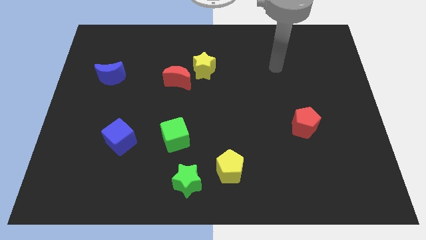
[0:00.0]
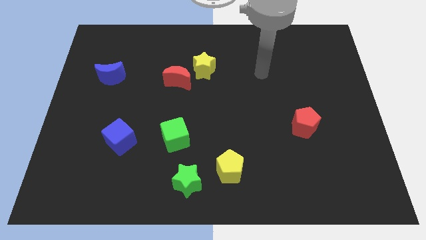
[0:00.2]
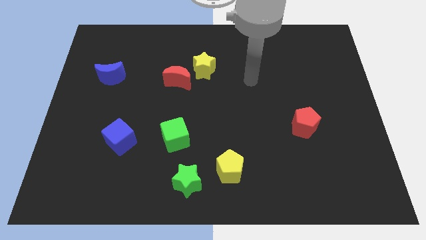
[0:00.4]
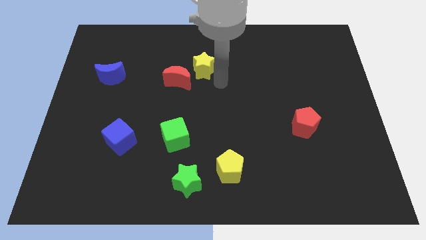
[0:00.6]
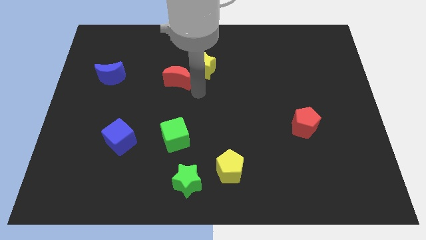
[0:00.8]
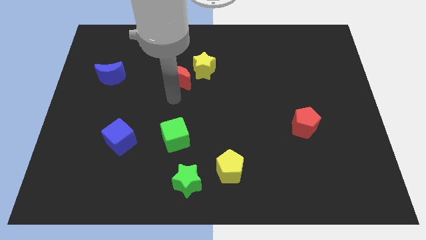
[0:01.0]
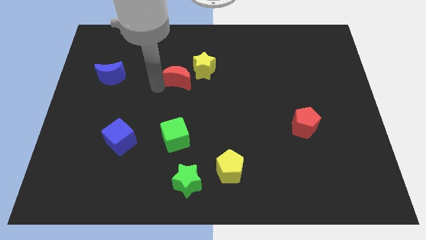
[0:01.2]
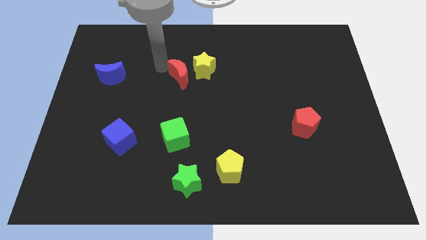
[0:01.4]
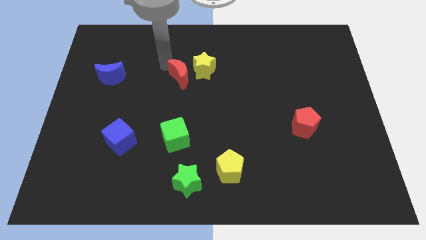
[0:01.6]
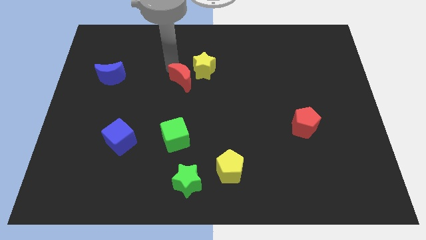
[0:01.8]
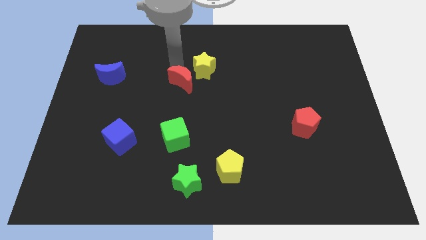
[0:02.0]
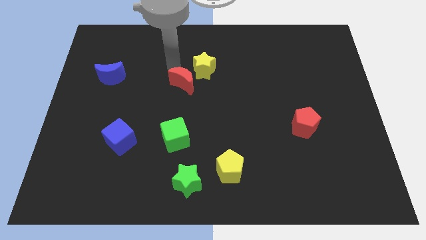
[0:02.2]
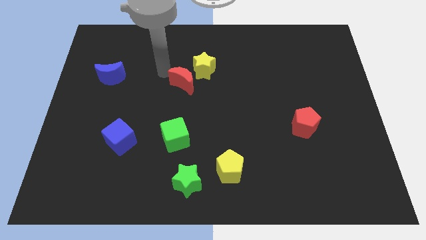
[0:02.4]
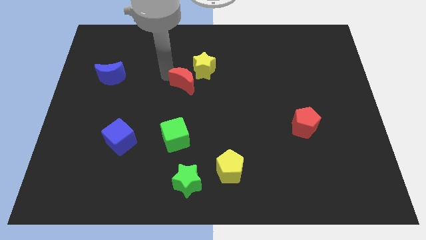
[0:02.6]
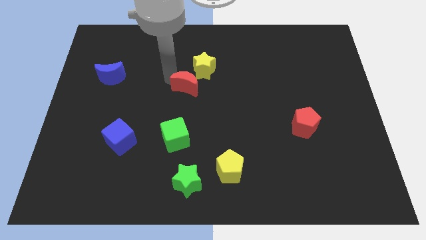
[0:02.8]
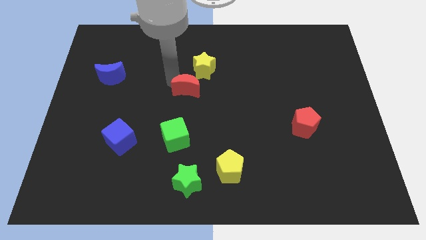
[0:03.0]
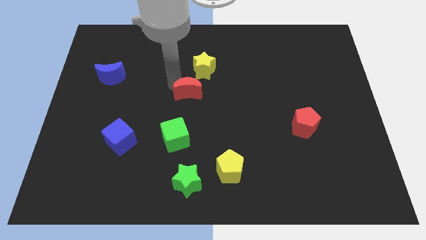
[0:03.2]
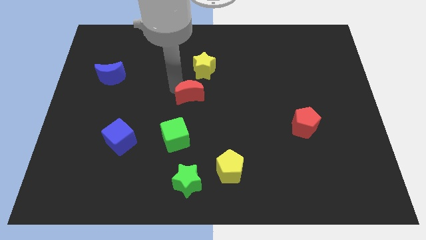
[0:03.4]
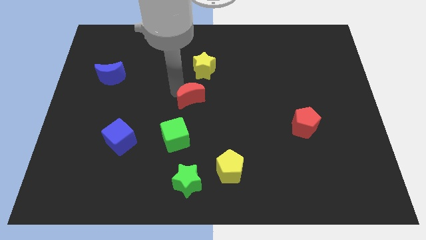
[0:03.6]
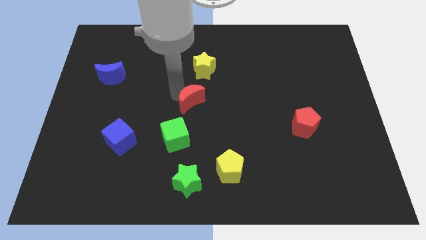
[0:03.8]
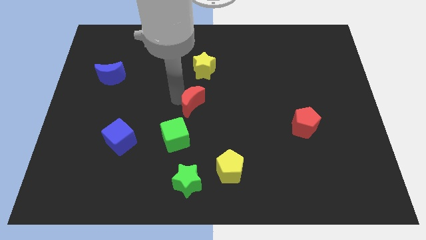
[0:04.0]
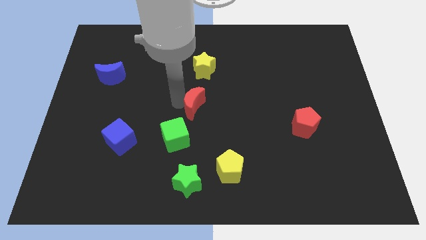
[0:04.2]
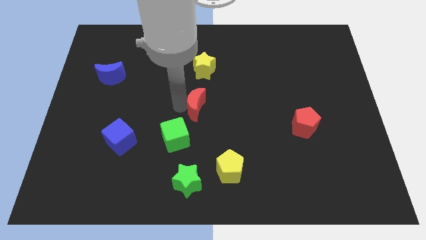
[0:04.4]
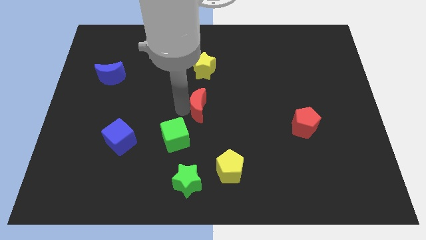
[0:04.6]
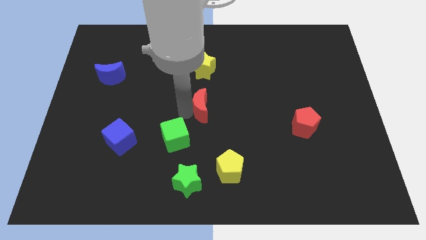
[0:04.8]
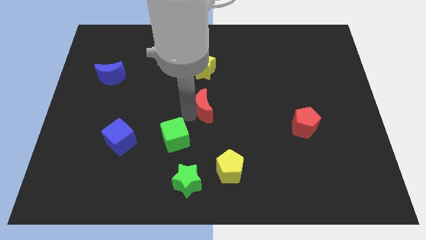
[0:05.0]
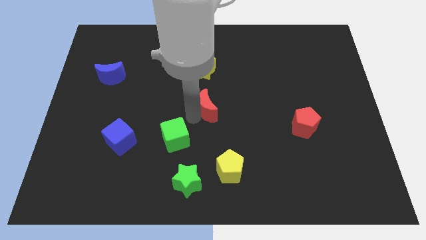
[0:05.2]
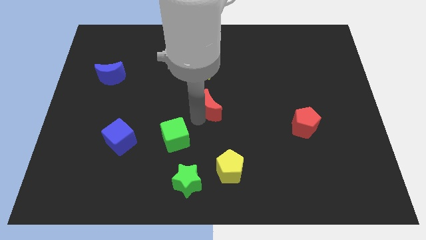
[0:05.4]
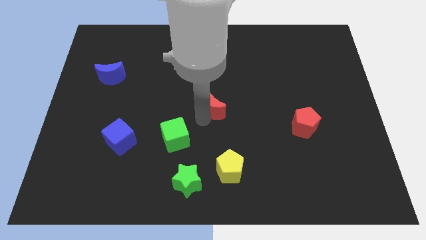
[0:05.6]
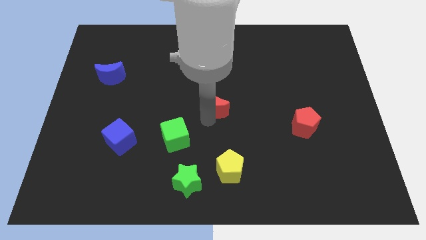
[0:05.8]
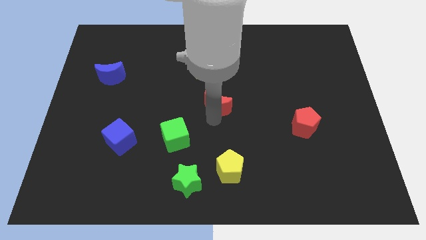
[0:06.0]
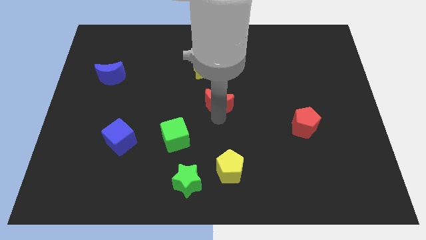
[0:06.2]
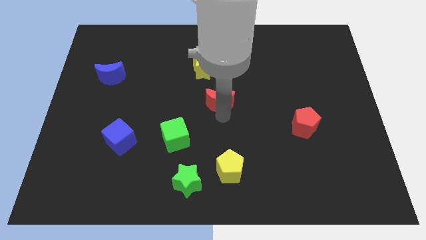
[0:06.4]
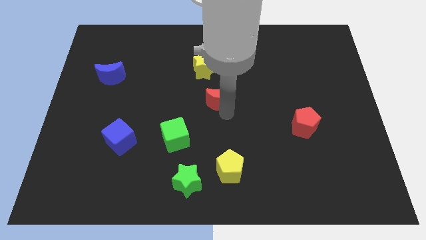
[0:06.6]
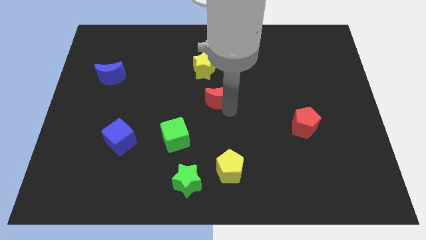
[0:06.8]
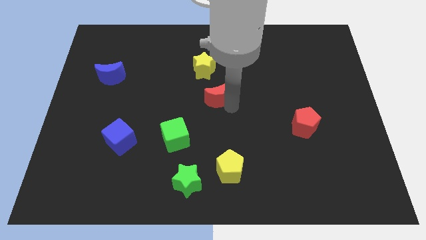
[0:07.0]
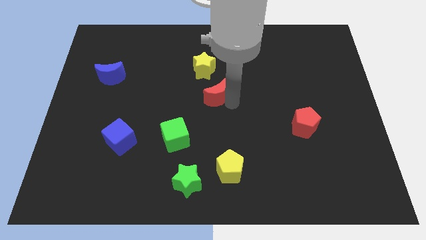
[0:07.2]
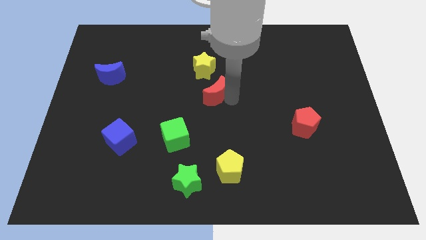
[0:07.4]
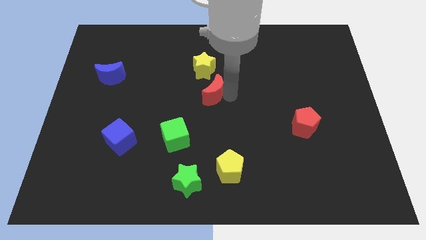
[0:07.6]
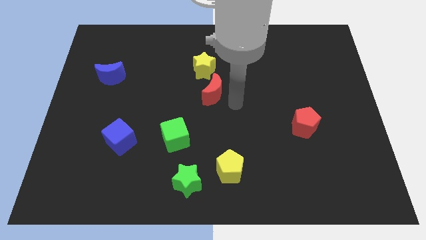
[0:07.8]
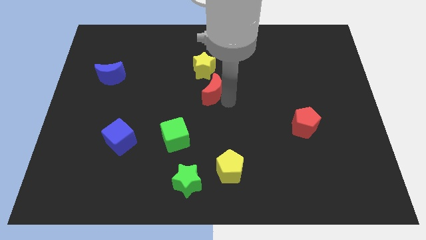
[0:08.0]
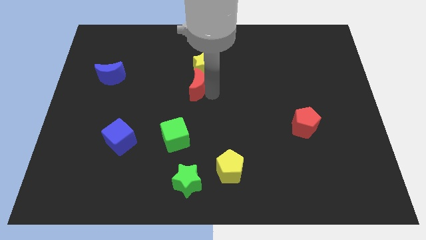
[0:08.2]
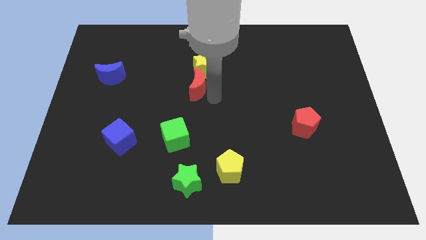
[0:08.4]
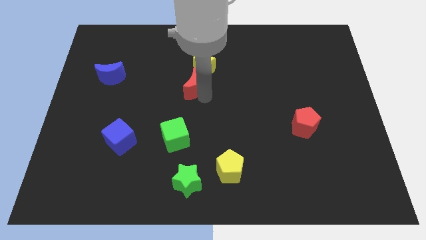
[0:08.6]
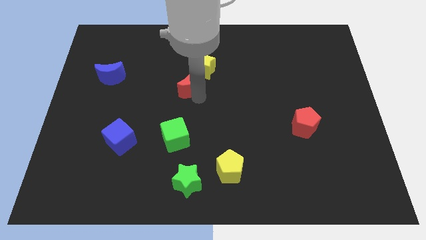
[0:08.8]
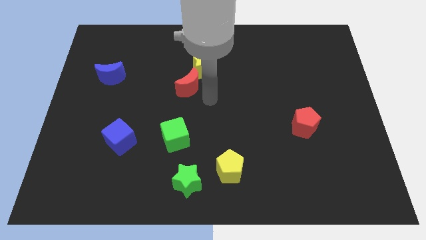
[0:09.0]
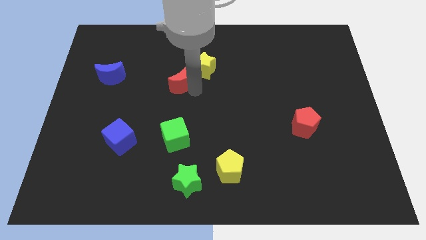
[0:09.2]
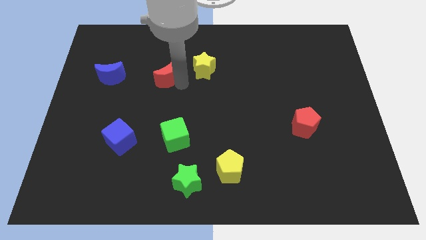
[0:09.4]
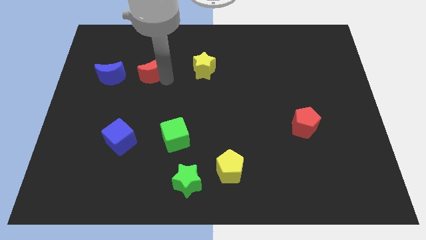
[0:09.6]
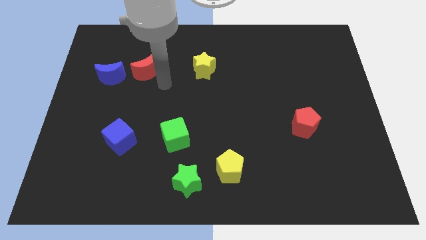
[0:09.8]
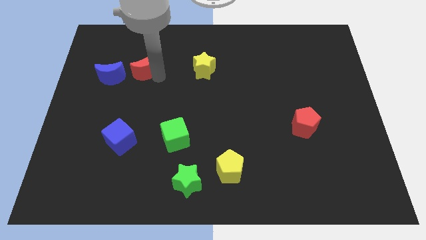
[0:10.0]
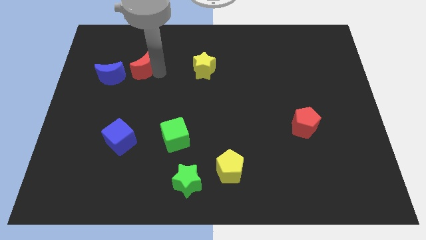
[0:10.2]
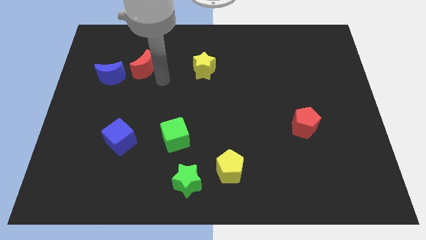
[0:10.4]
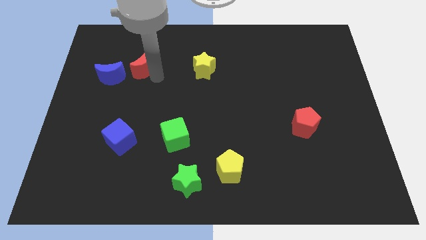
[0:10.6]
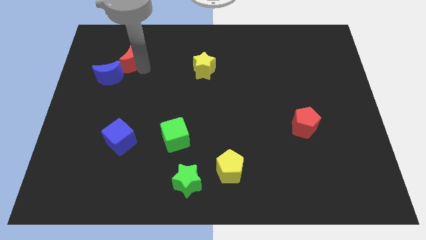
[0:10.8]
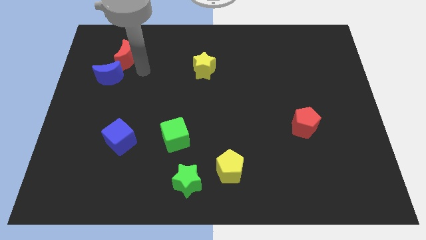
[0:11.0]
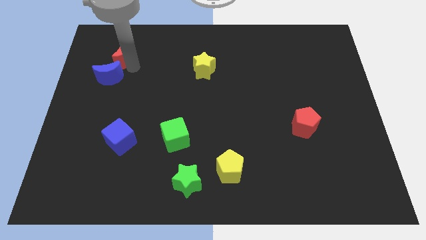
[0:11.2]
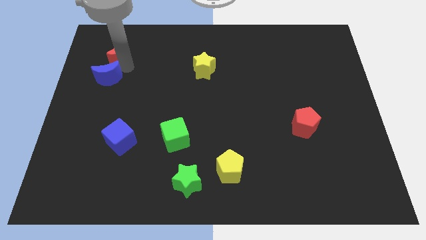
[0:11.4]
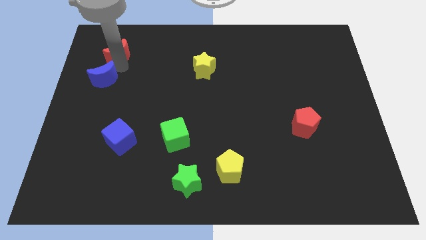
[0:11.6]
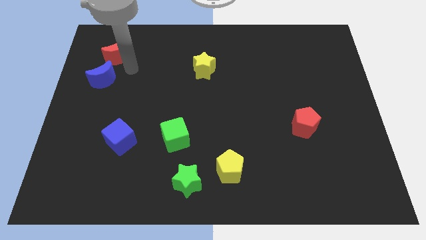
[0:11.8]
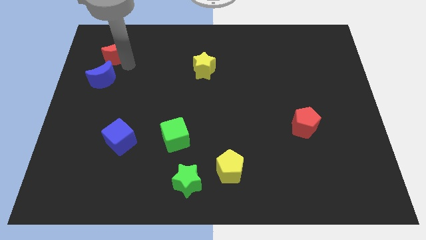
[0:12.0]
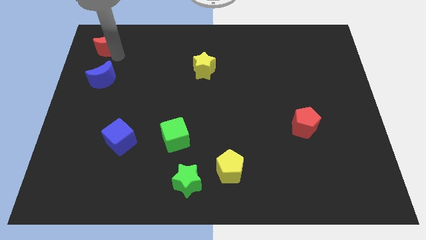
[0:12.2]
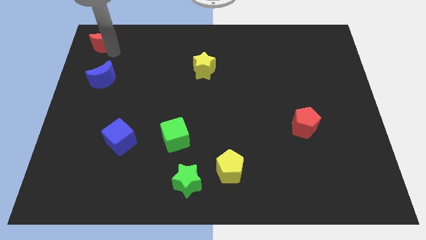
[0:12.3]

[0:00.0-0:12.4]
move the red moon to the upper left corner
